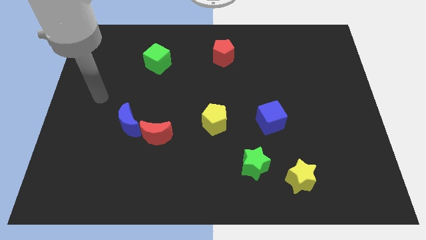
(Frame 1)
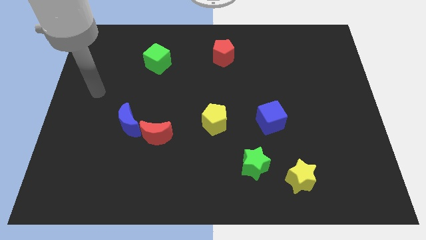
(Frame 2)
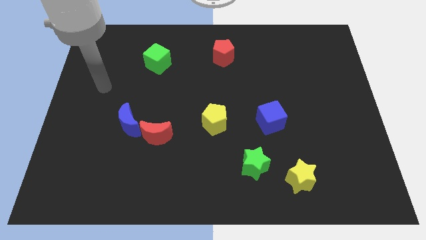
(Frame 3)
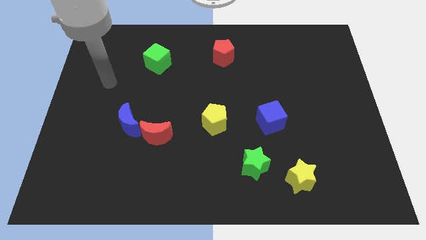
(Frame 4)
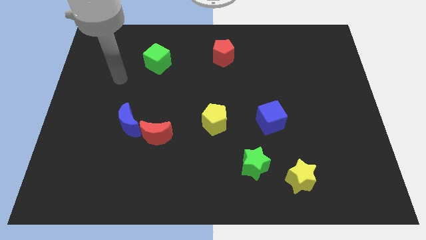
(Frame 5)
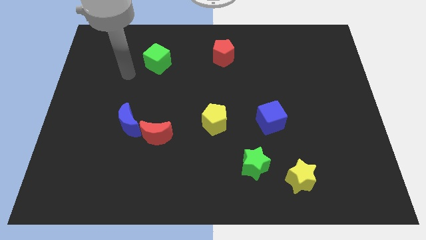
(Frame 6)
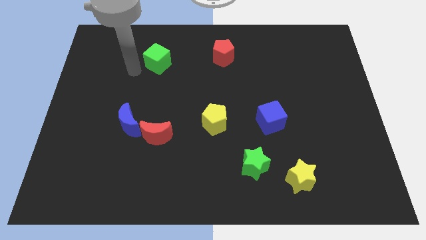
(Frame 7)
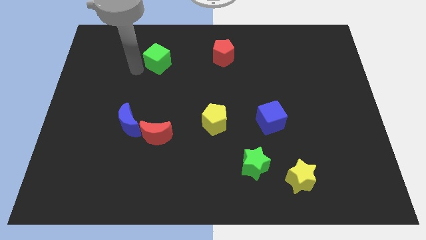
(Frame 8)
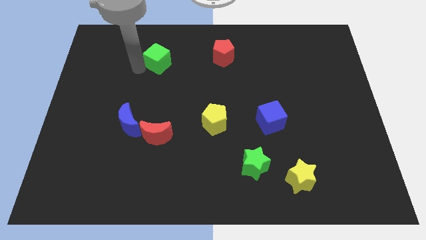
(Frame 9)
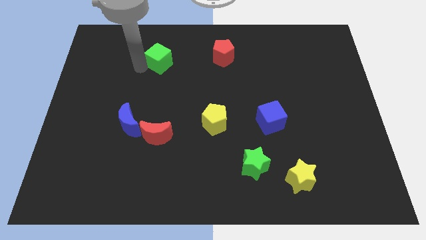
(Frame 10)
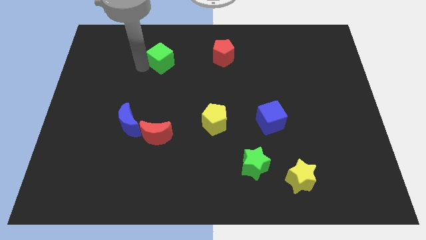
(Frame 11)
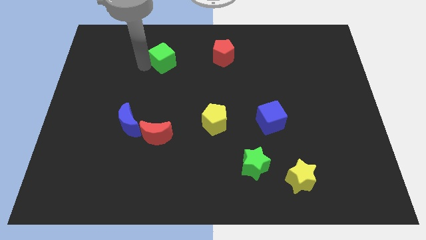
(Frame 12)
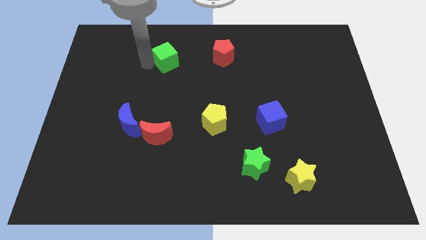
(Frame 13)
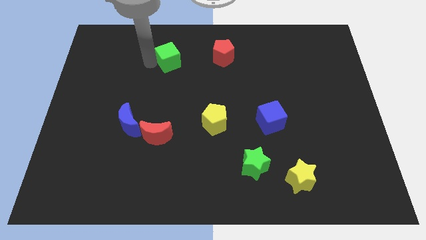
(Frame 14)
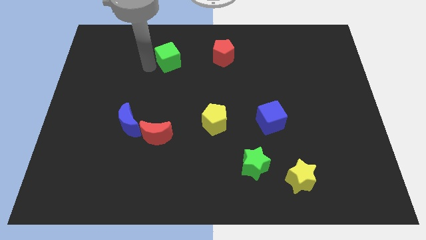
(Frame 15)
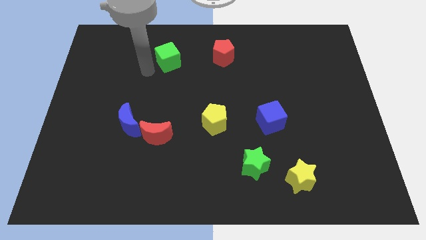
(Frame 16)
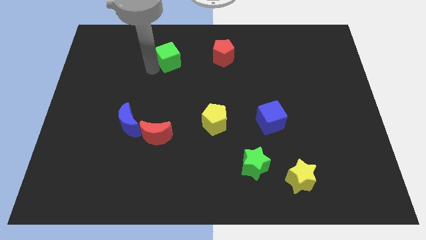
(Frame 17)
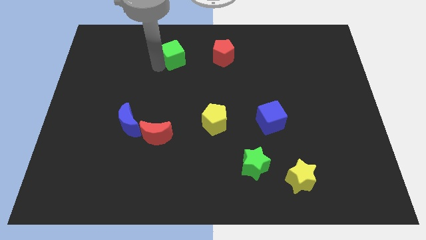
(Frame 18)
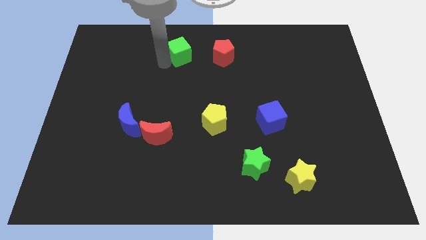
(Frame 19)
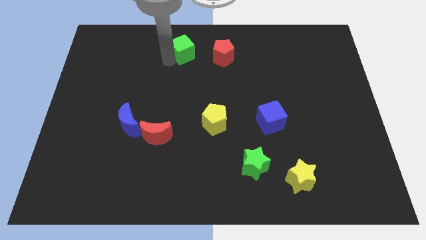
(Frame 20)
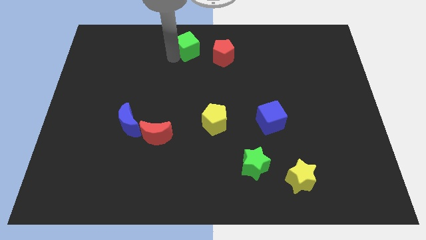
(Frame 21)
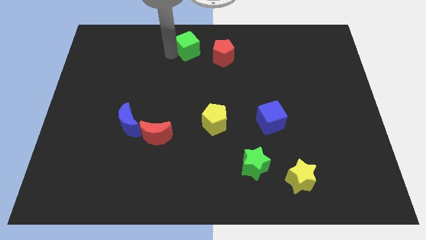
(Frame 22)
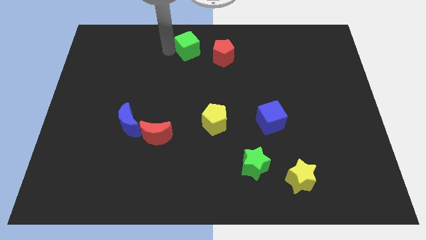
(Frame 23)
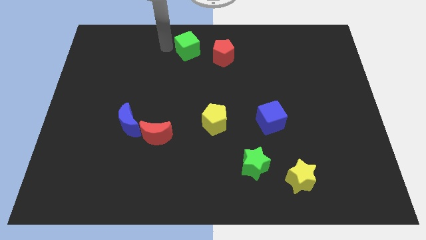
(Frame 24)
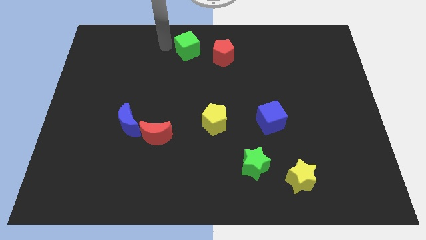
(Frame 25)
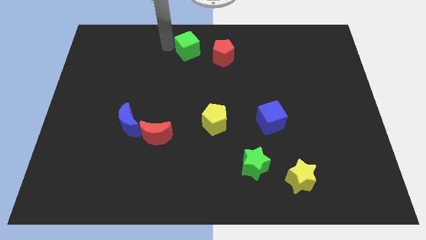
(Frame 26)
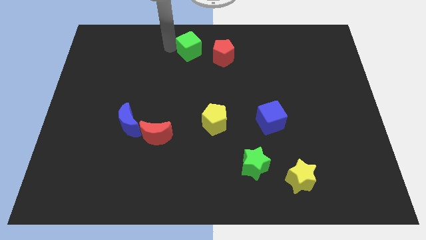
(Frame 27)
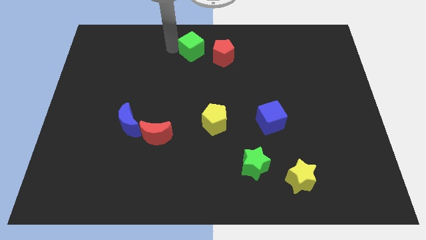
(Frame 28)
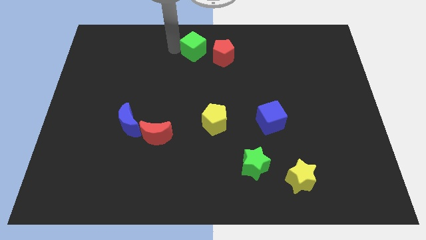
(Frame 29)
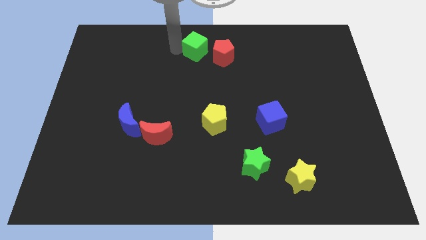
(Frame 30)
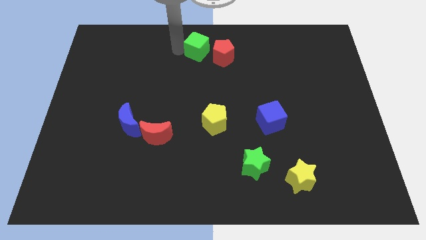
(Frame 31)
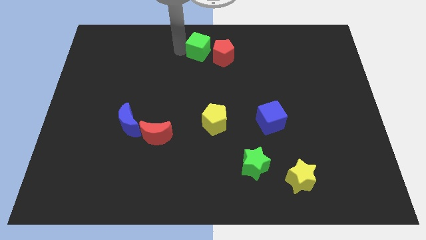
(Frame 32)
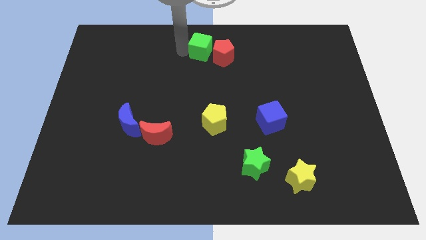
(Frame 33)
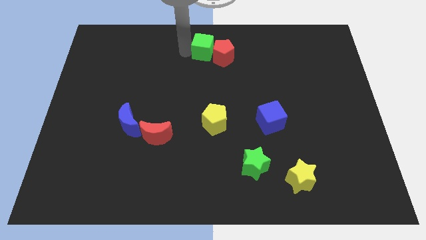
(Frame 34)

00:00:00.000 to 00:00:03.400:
put the green cube close to the red pentagon

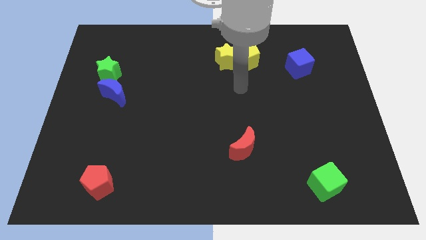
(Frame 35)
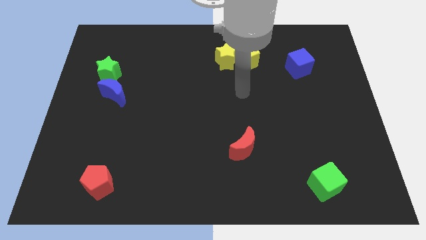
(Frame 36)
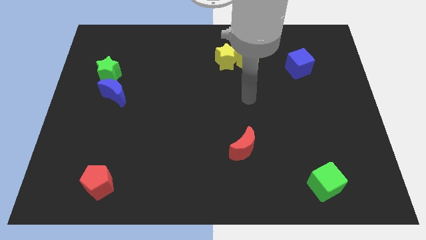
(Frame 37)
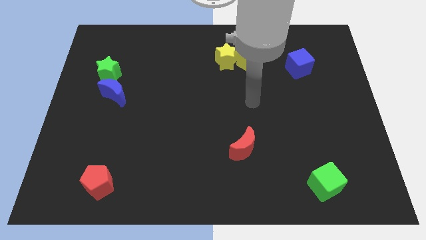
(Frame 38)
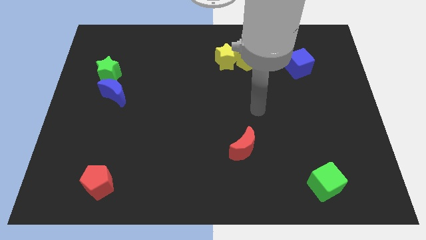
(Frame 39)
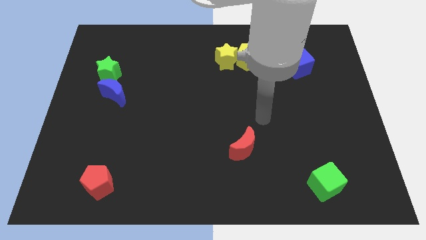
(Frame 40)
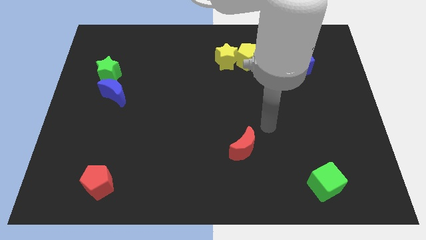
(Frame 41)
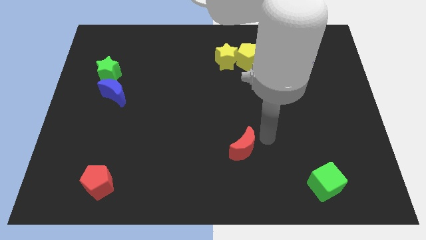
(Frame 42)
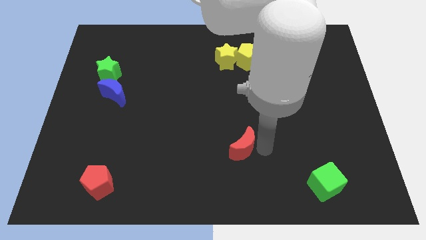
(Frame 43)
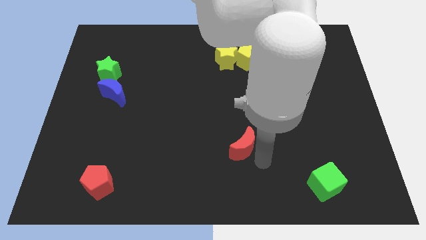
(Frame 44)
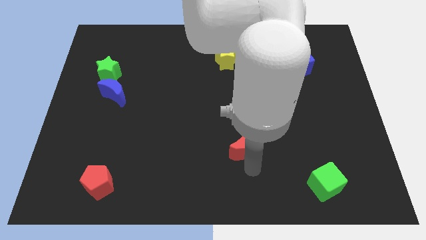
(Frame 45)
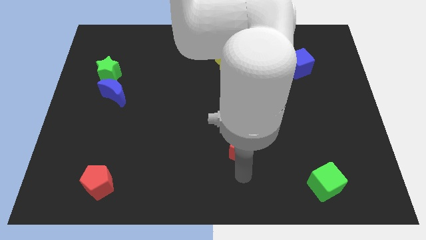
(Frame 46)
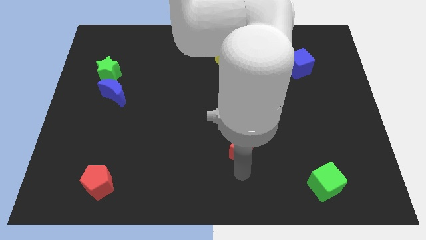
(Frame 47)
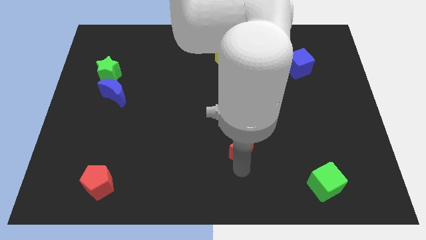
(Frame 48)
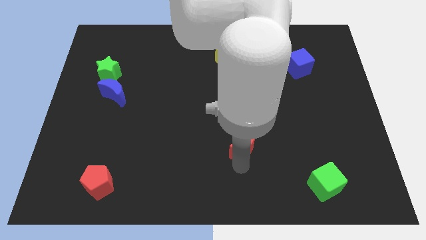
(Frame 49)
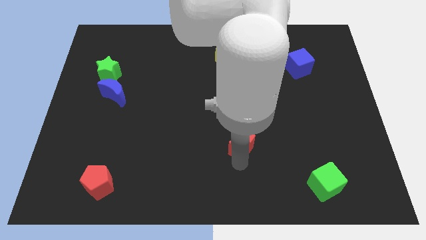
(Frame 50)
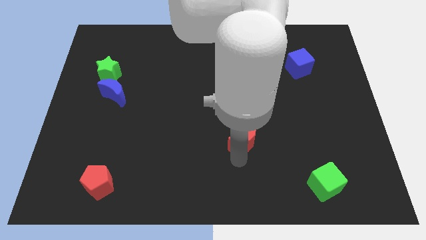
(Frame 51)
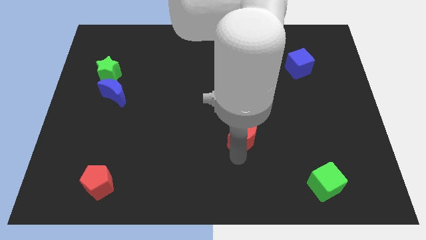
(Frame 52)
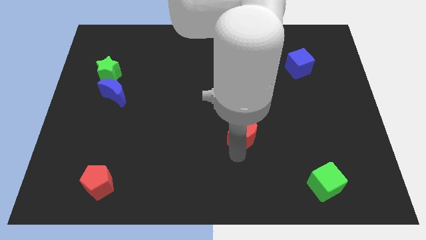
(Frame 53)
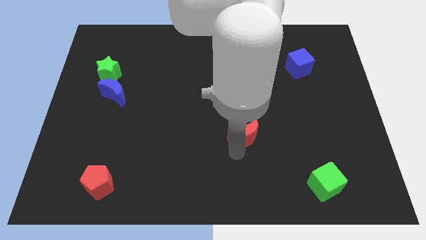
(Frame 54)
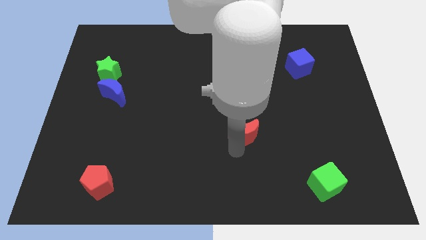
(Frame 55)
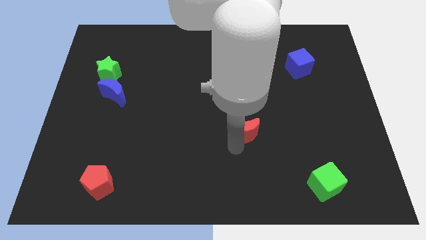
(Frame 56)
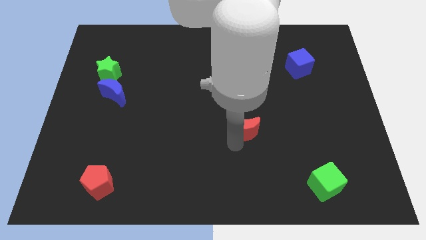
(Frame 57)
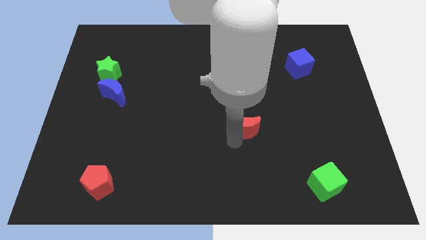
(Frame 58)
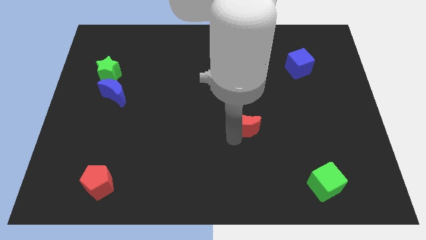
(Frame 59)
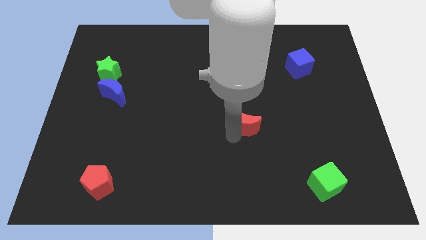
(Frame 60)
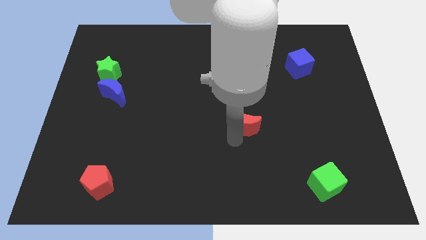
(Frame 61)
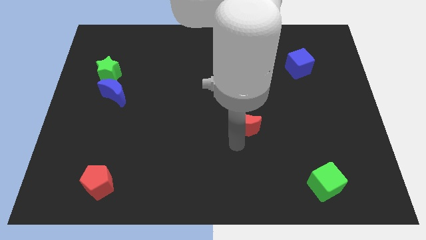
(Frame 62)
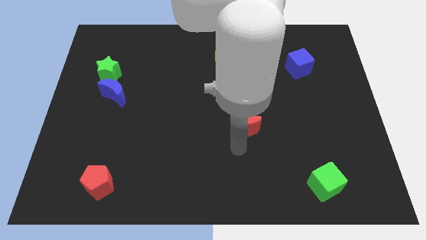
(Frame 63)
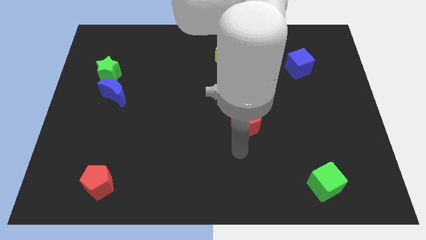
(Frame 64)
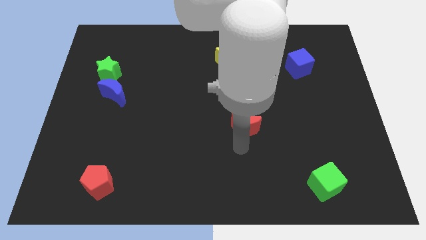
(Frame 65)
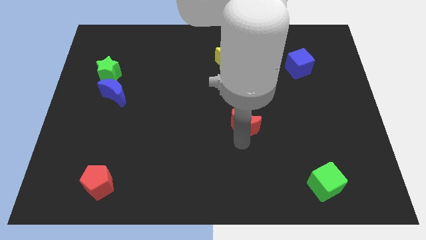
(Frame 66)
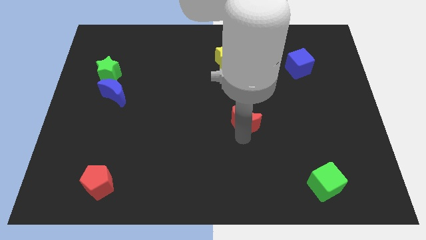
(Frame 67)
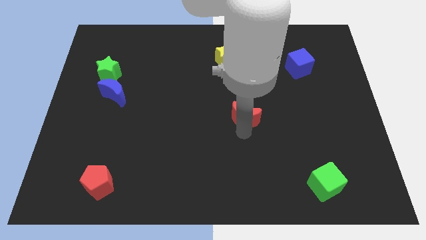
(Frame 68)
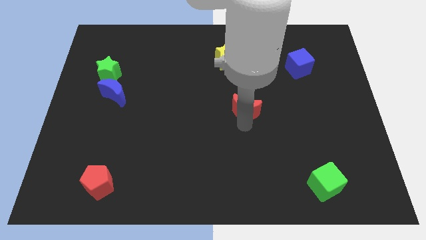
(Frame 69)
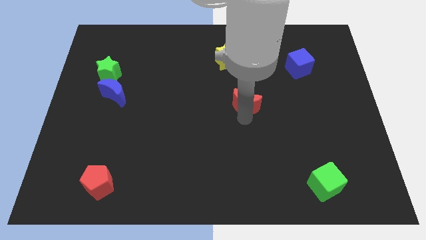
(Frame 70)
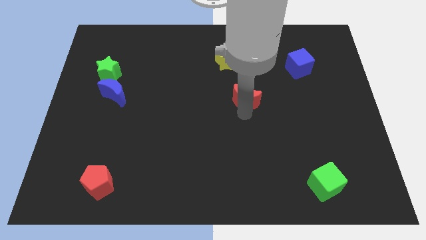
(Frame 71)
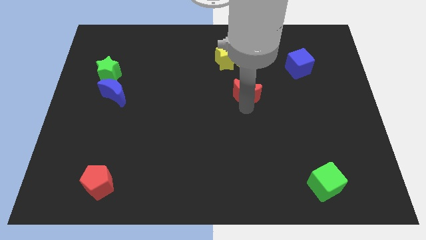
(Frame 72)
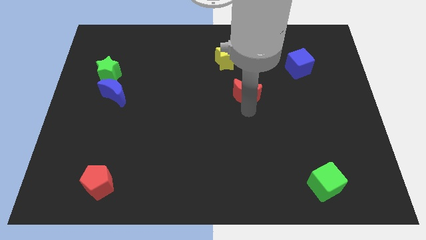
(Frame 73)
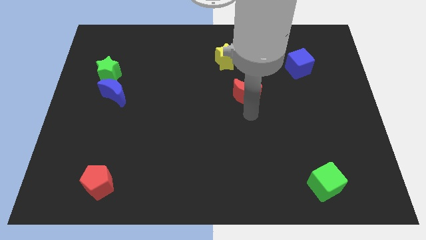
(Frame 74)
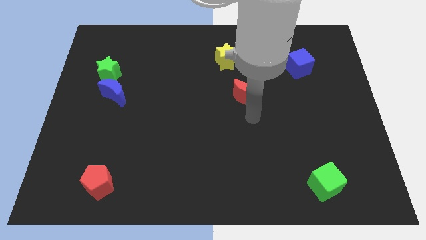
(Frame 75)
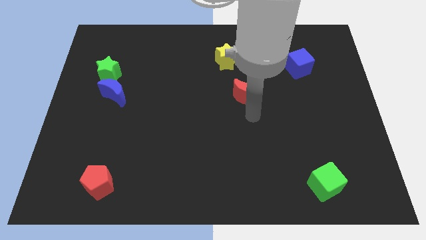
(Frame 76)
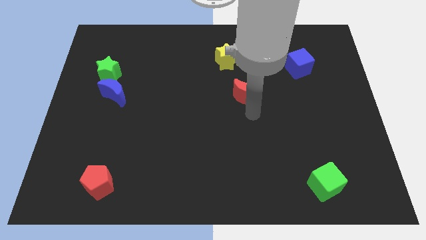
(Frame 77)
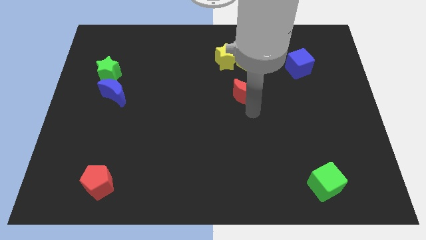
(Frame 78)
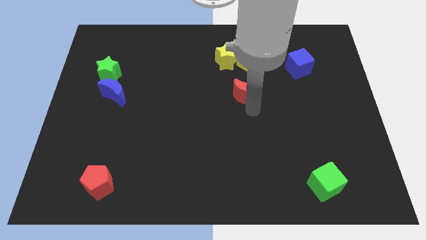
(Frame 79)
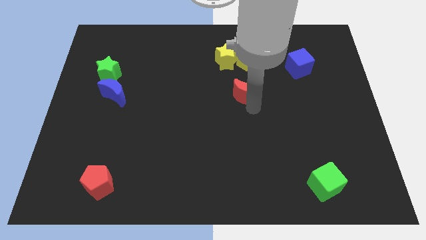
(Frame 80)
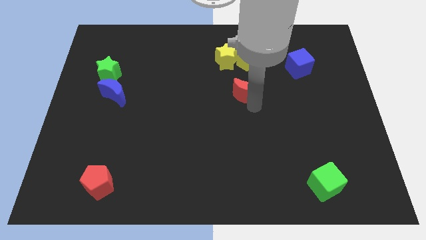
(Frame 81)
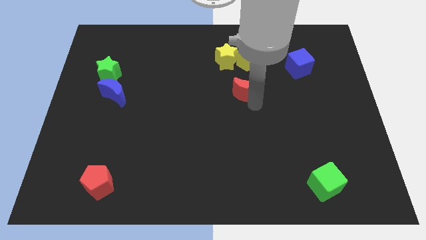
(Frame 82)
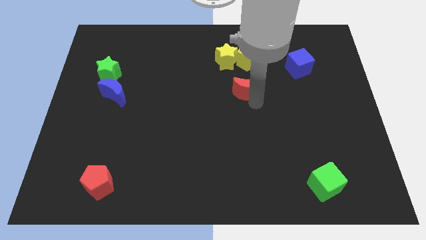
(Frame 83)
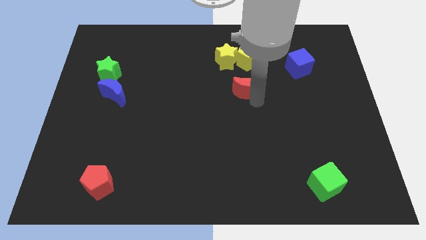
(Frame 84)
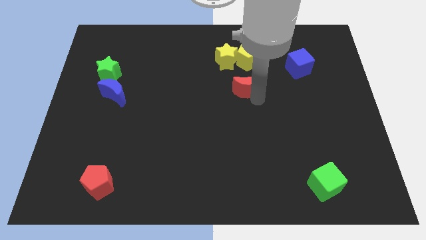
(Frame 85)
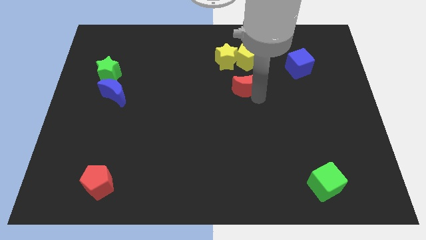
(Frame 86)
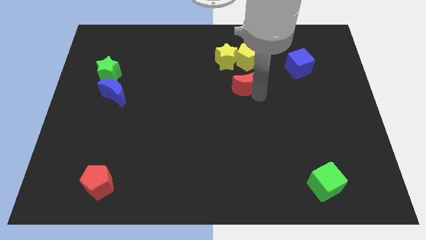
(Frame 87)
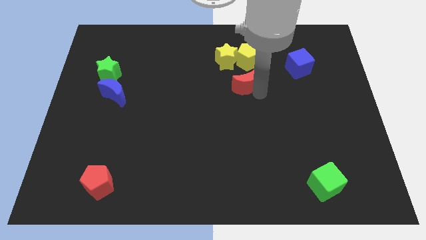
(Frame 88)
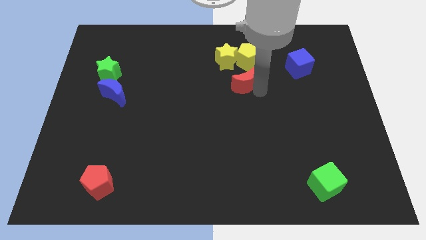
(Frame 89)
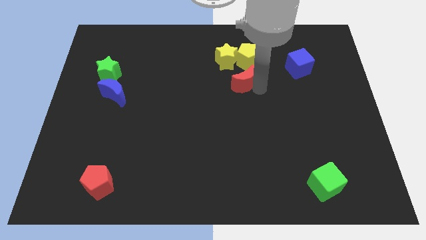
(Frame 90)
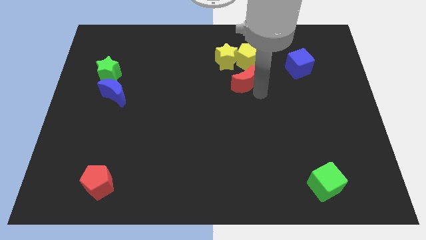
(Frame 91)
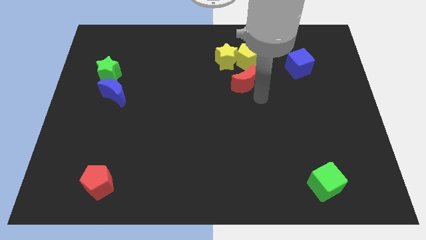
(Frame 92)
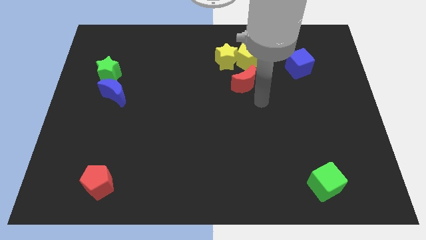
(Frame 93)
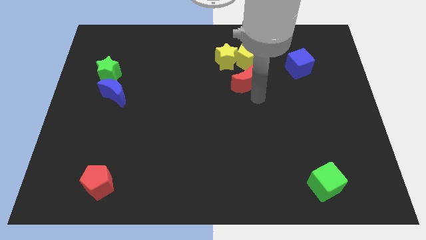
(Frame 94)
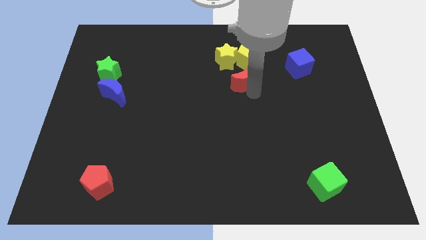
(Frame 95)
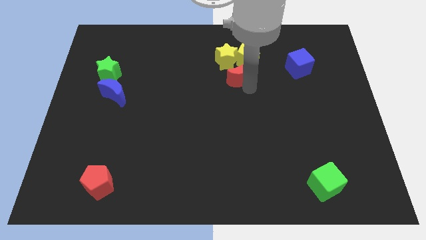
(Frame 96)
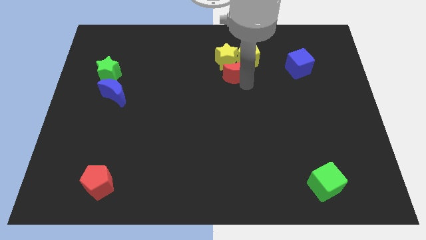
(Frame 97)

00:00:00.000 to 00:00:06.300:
push the red moon to the yellow star
